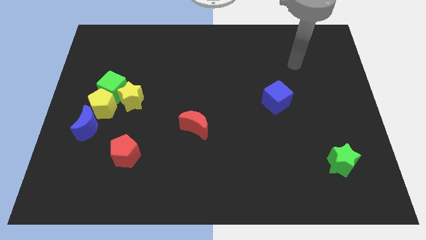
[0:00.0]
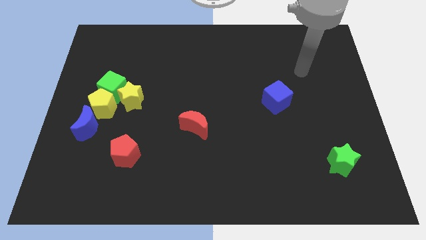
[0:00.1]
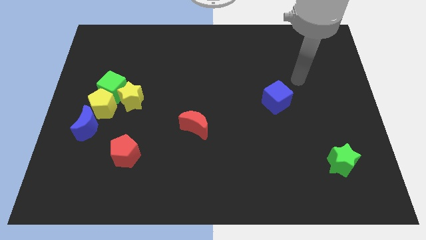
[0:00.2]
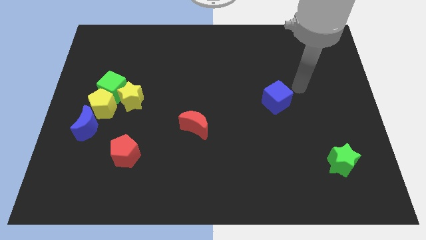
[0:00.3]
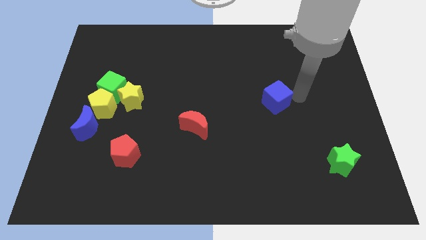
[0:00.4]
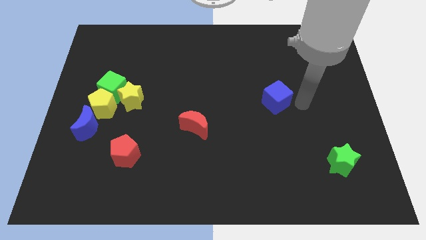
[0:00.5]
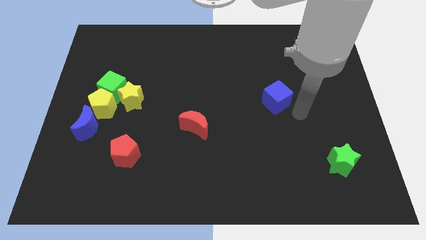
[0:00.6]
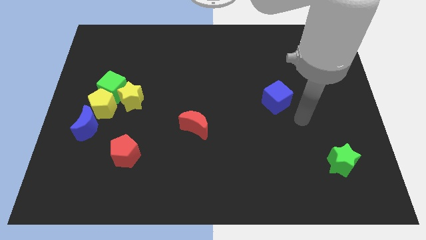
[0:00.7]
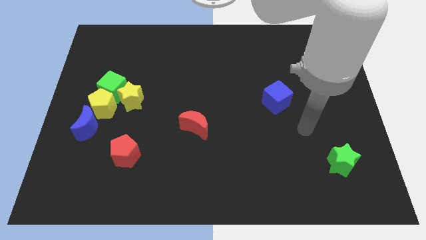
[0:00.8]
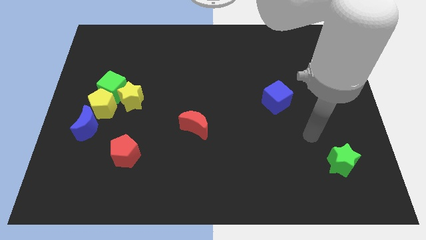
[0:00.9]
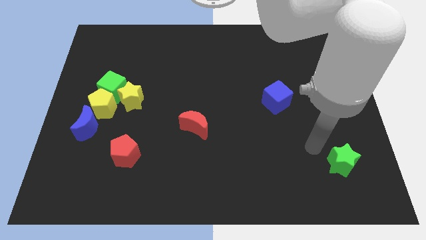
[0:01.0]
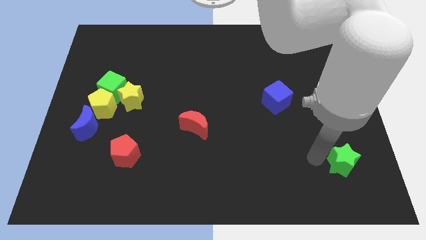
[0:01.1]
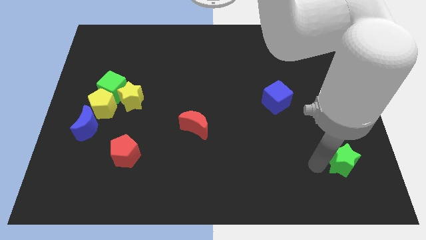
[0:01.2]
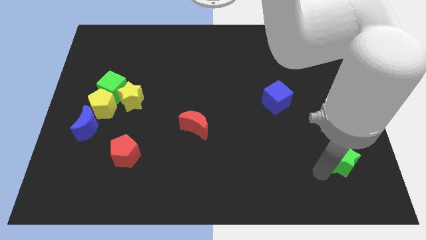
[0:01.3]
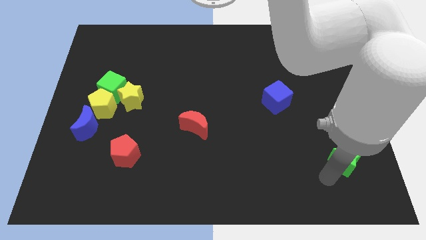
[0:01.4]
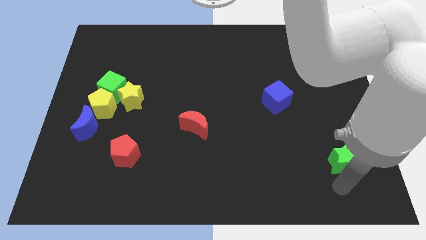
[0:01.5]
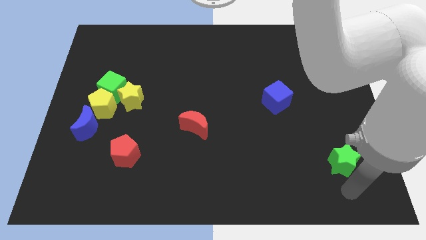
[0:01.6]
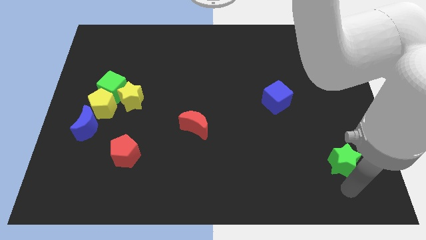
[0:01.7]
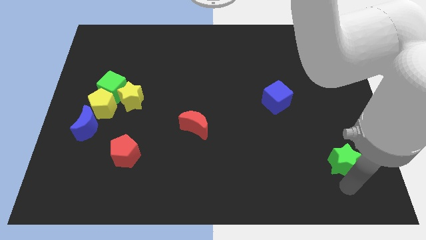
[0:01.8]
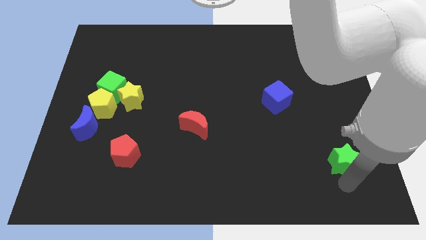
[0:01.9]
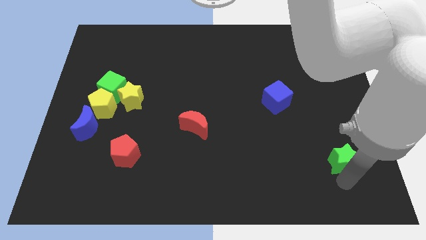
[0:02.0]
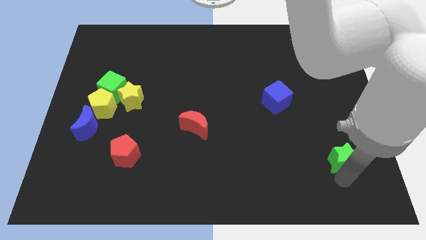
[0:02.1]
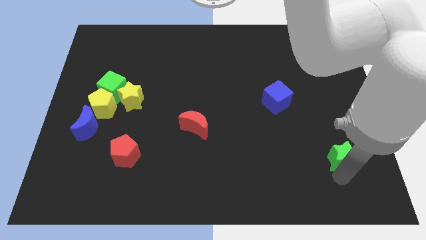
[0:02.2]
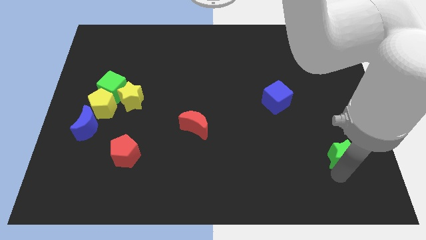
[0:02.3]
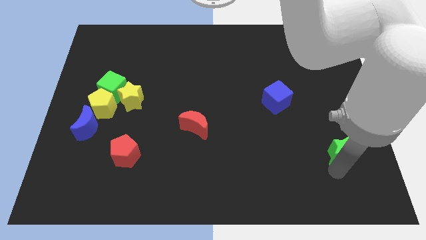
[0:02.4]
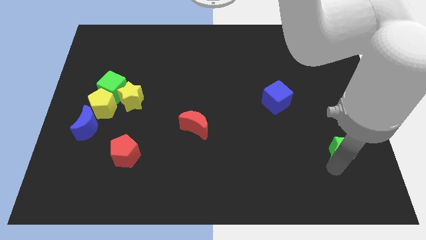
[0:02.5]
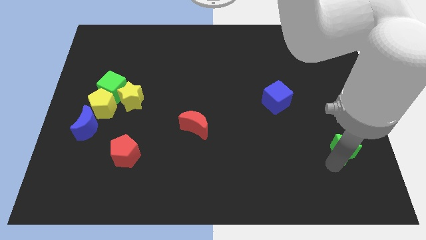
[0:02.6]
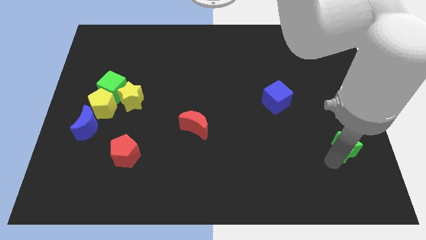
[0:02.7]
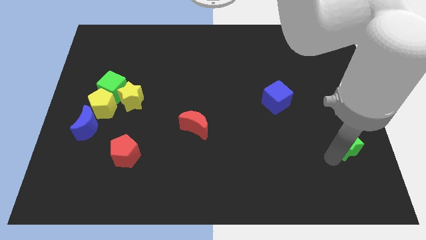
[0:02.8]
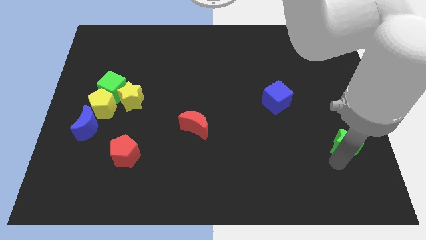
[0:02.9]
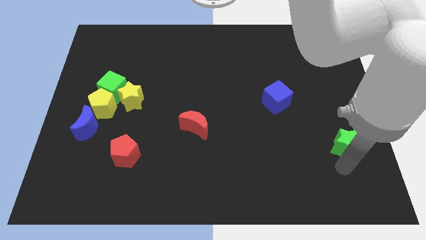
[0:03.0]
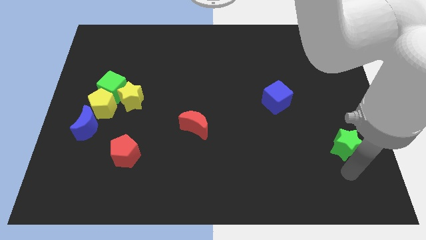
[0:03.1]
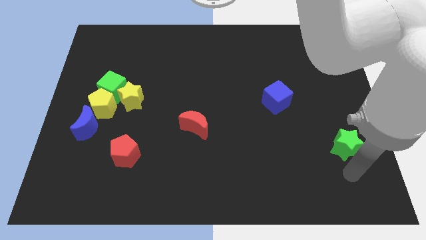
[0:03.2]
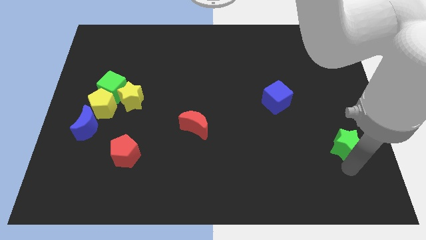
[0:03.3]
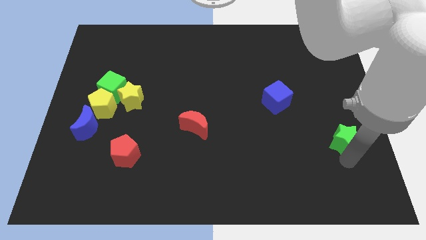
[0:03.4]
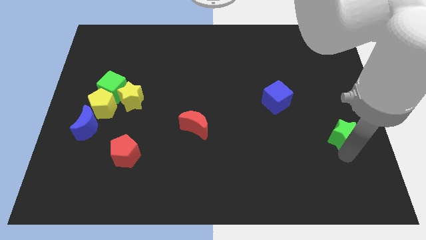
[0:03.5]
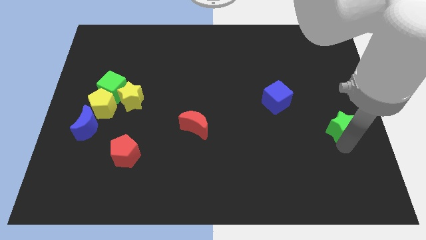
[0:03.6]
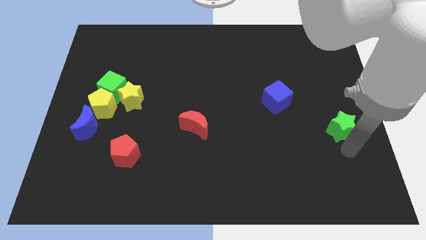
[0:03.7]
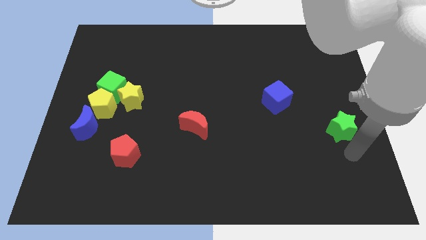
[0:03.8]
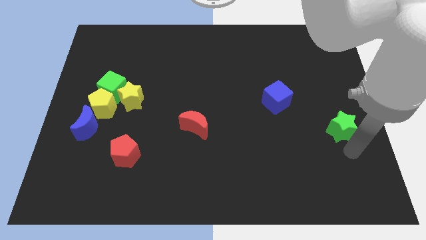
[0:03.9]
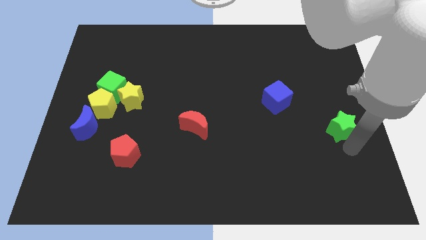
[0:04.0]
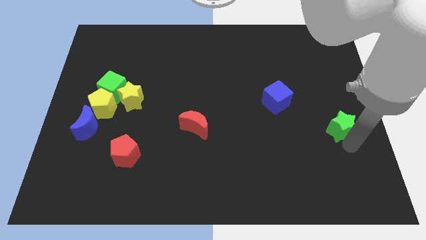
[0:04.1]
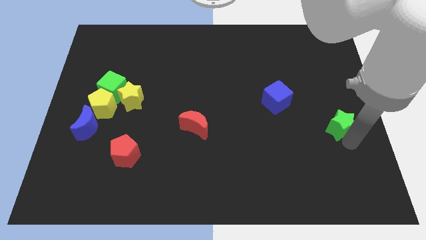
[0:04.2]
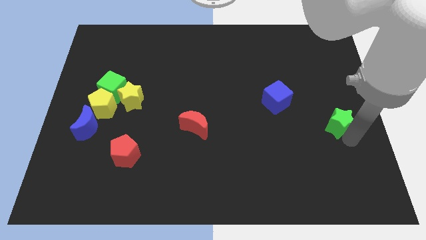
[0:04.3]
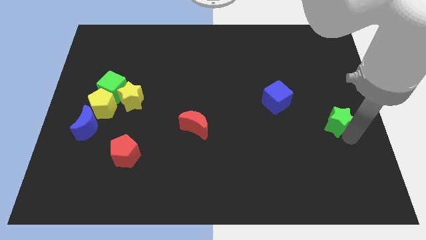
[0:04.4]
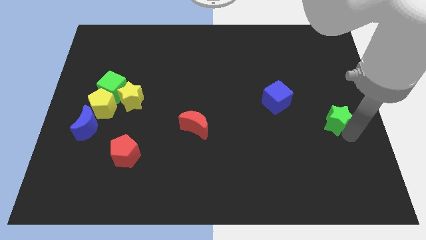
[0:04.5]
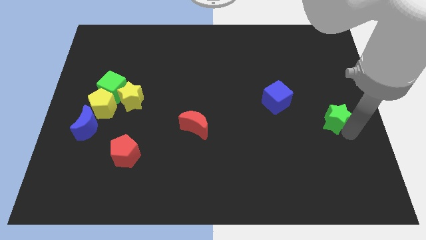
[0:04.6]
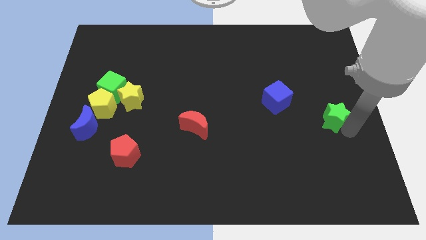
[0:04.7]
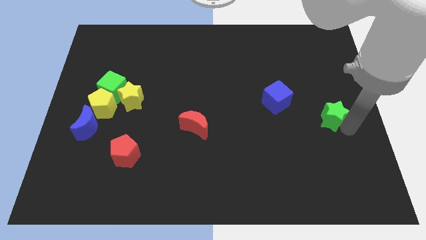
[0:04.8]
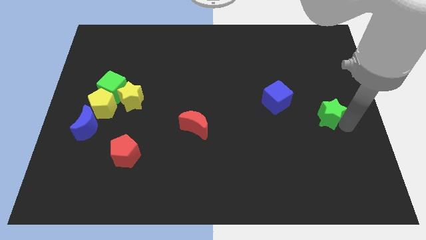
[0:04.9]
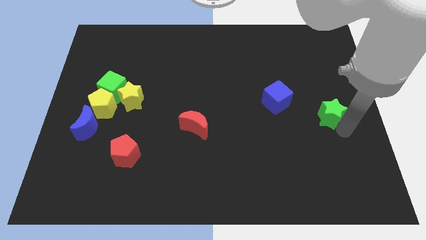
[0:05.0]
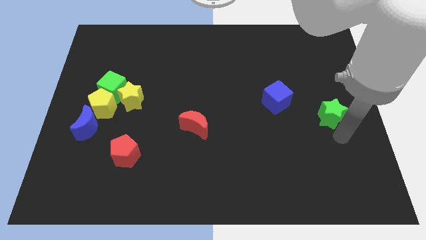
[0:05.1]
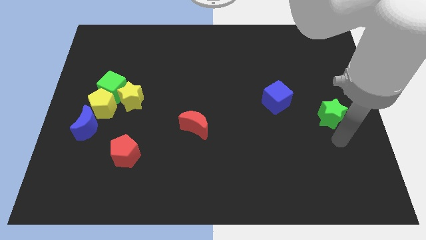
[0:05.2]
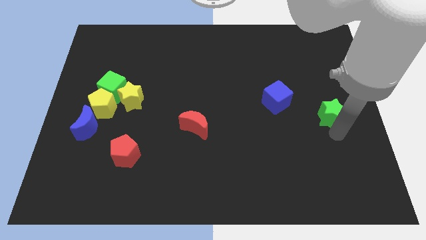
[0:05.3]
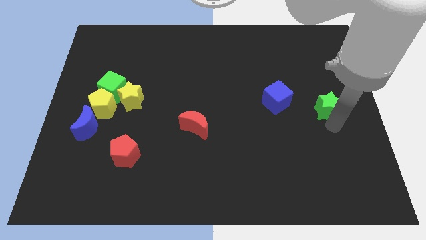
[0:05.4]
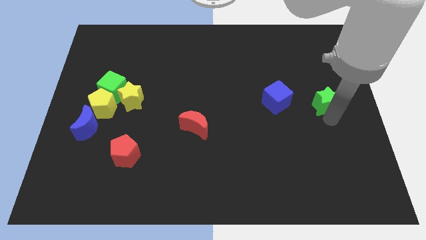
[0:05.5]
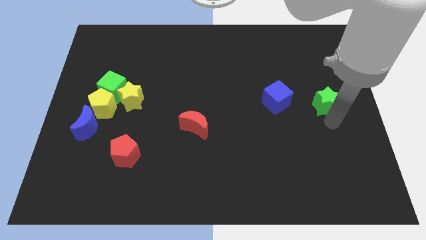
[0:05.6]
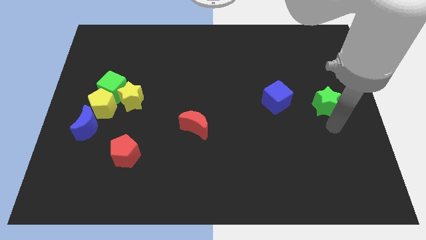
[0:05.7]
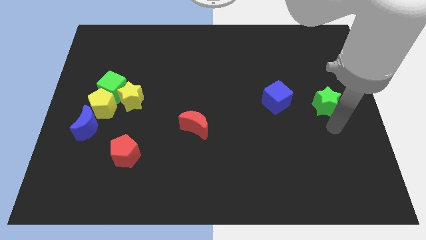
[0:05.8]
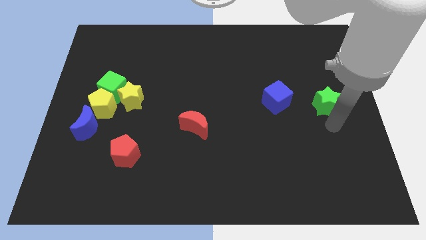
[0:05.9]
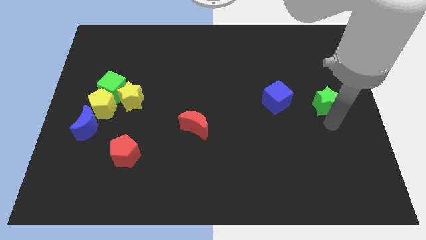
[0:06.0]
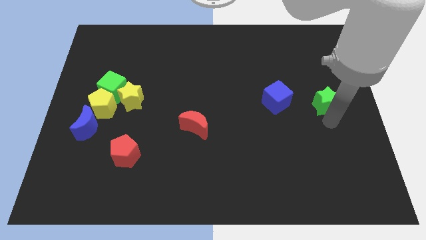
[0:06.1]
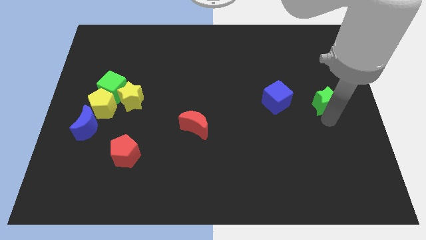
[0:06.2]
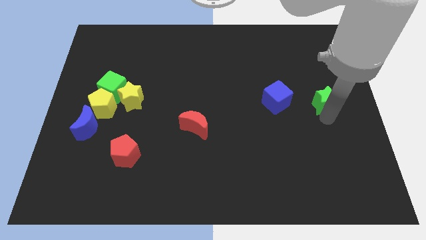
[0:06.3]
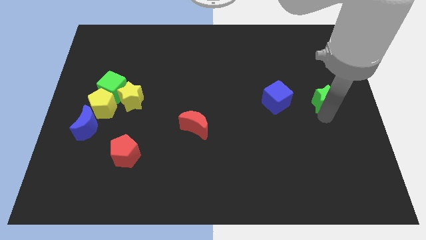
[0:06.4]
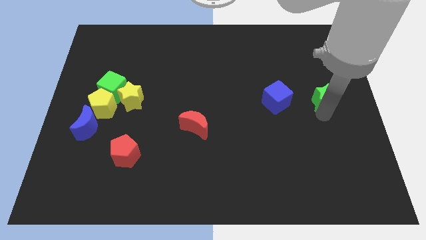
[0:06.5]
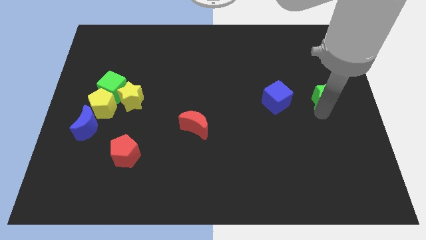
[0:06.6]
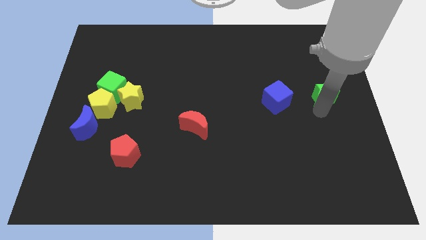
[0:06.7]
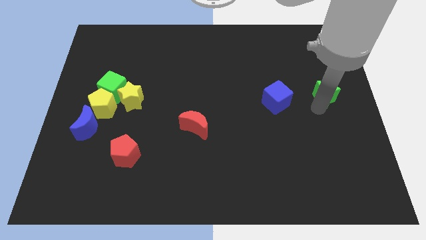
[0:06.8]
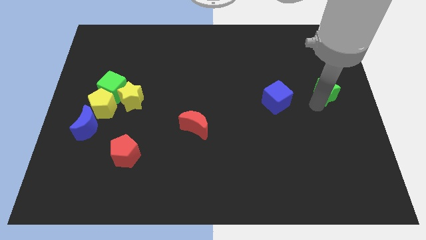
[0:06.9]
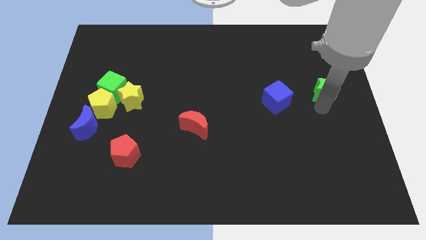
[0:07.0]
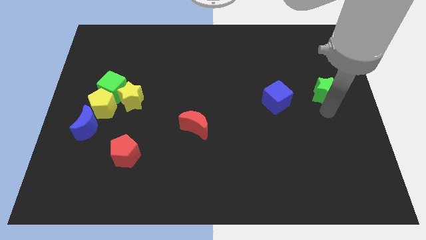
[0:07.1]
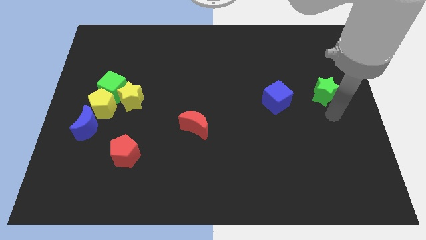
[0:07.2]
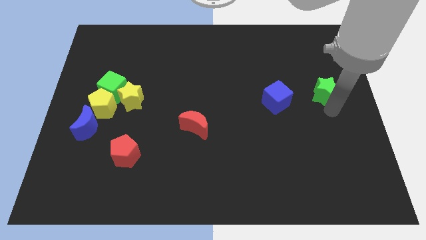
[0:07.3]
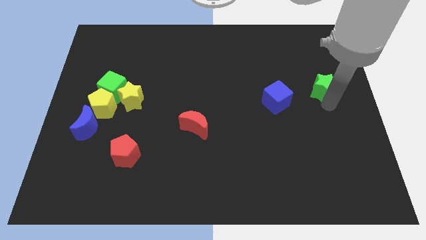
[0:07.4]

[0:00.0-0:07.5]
slide the green star upwards

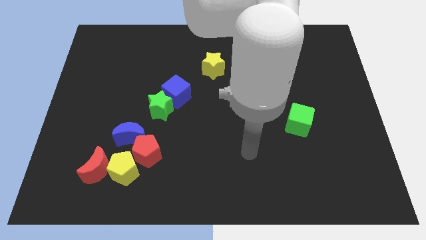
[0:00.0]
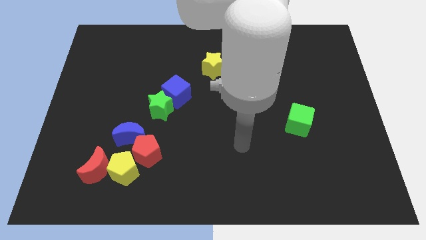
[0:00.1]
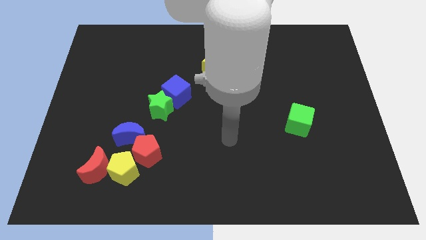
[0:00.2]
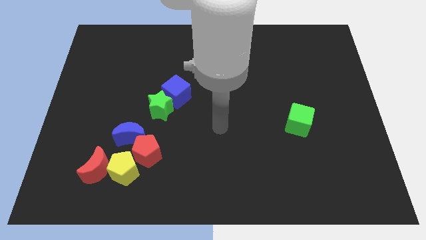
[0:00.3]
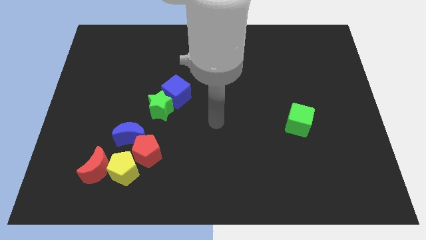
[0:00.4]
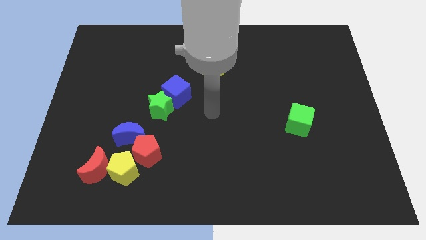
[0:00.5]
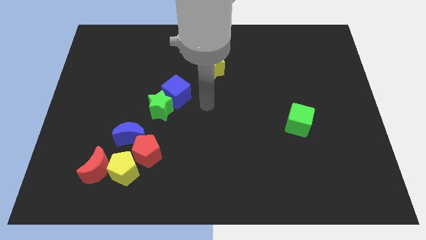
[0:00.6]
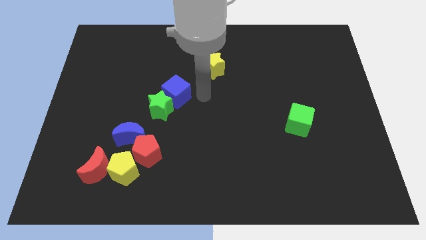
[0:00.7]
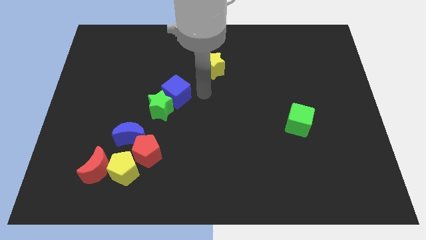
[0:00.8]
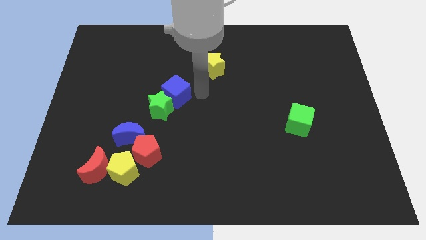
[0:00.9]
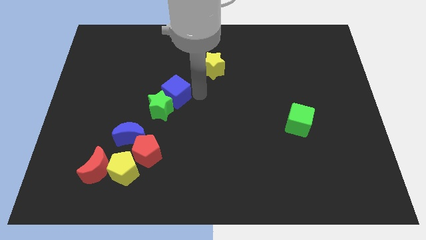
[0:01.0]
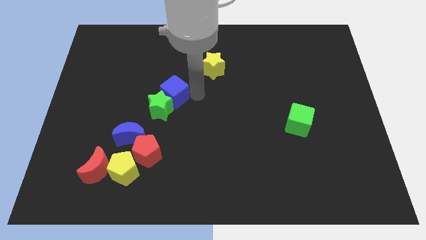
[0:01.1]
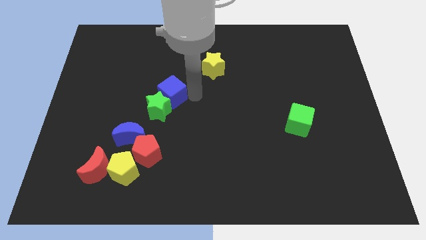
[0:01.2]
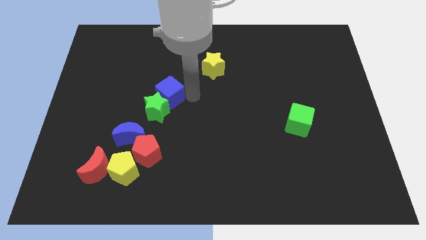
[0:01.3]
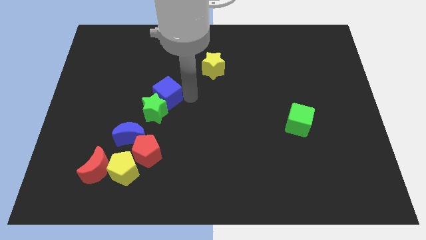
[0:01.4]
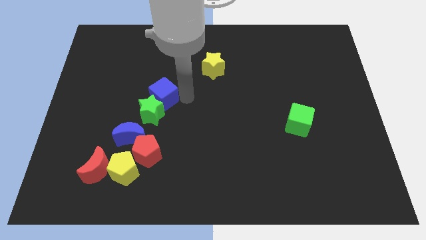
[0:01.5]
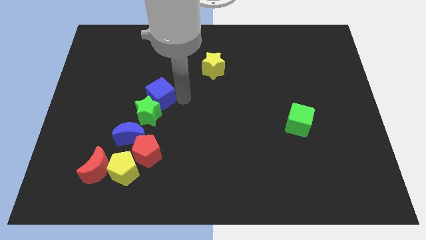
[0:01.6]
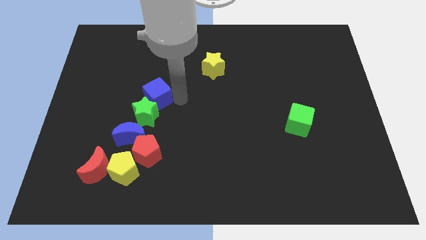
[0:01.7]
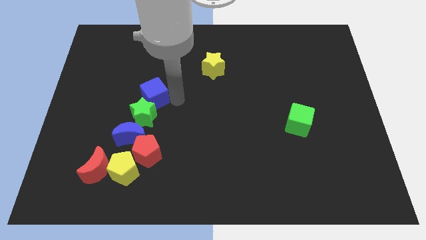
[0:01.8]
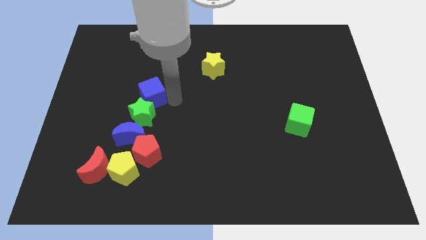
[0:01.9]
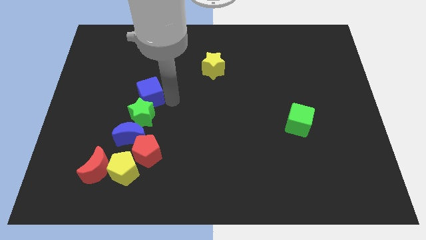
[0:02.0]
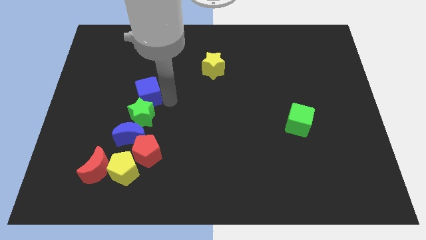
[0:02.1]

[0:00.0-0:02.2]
slide the blue cube to the left a little
